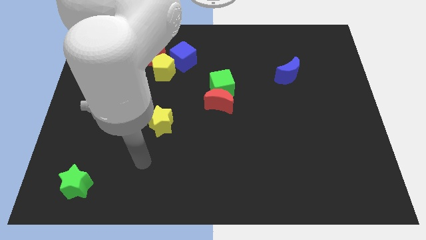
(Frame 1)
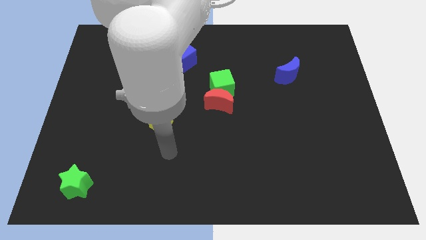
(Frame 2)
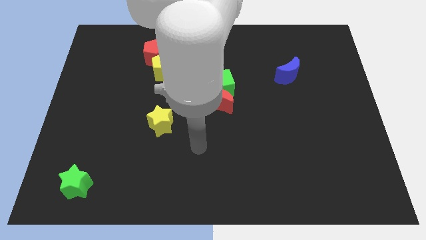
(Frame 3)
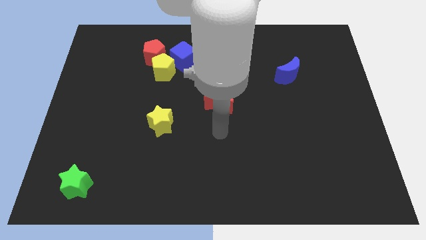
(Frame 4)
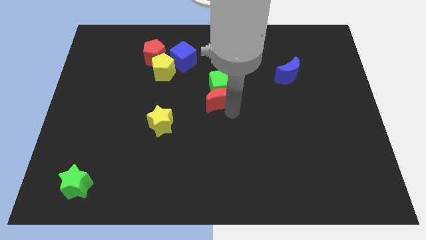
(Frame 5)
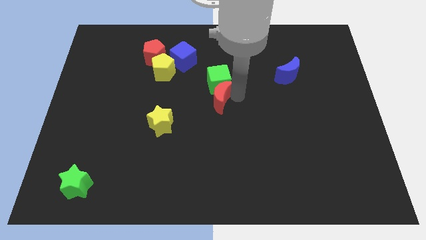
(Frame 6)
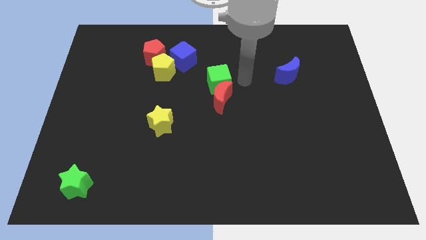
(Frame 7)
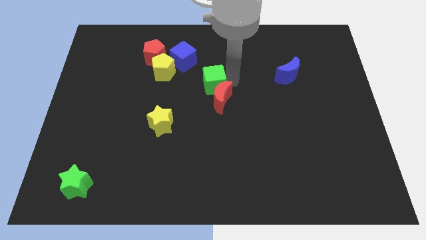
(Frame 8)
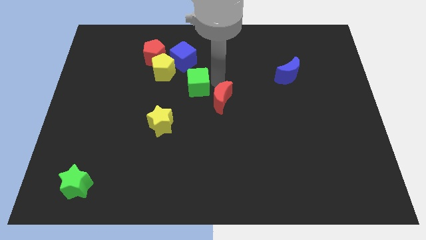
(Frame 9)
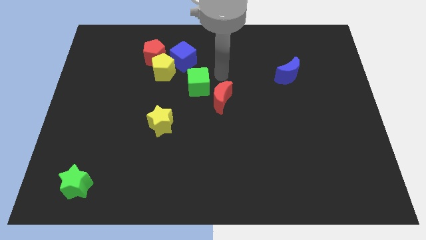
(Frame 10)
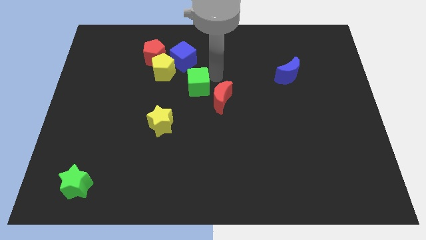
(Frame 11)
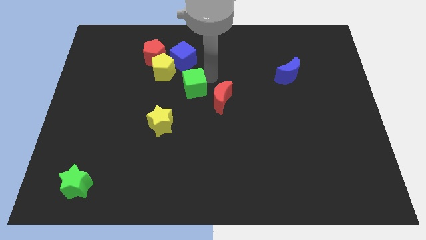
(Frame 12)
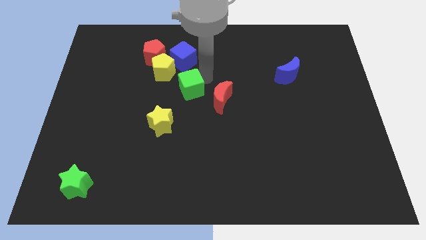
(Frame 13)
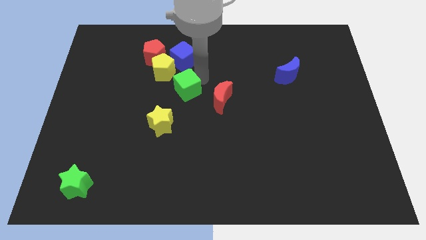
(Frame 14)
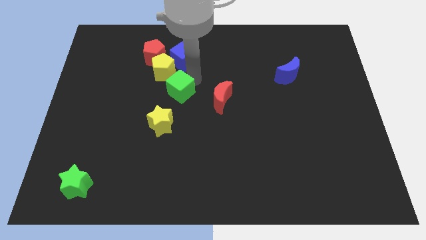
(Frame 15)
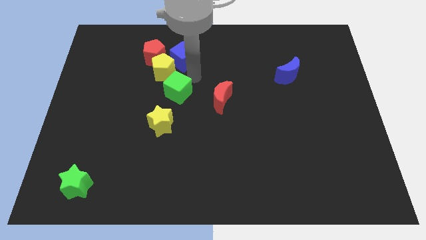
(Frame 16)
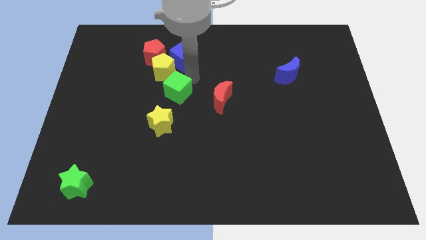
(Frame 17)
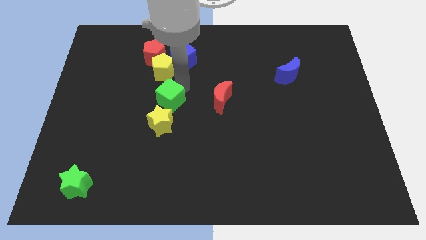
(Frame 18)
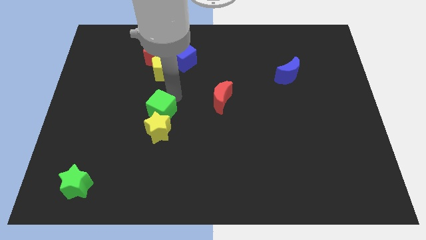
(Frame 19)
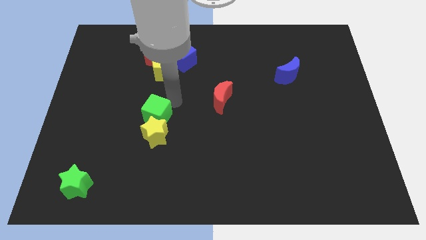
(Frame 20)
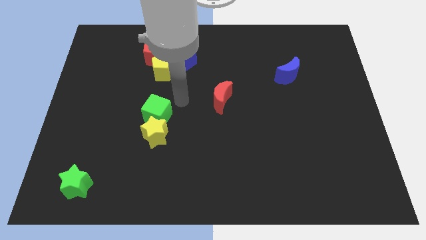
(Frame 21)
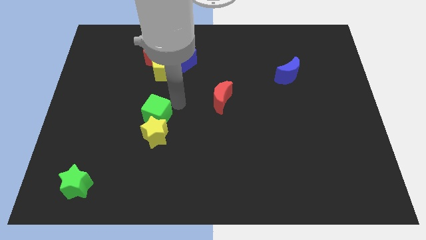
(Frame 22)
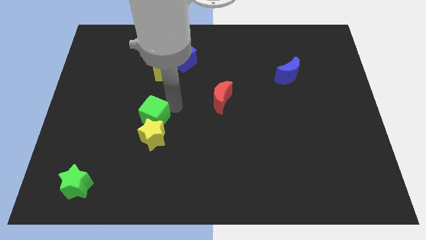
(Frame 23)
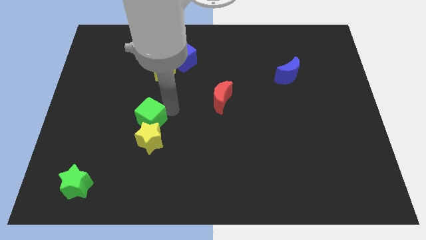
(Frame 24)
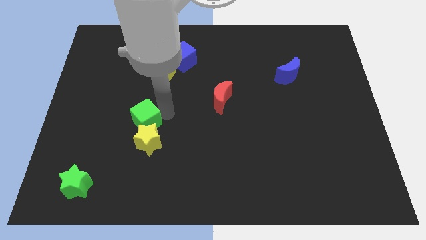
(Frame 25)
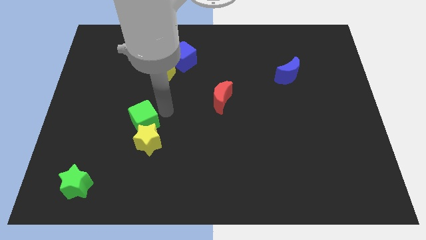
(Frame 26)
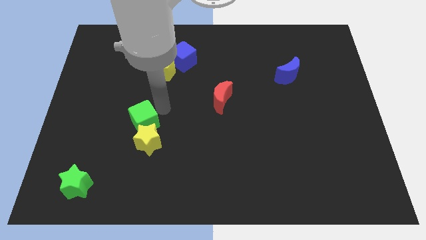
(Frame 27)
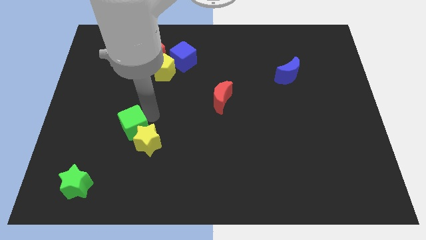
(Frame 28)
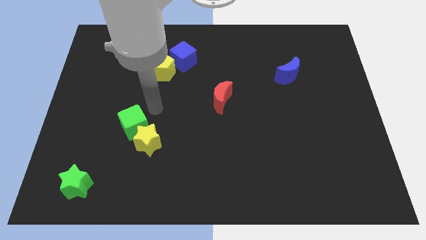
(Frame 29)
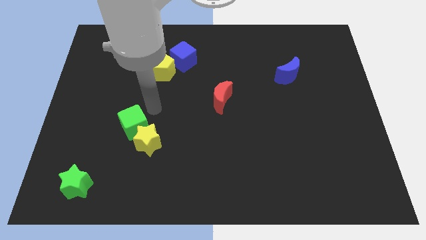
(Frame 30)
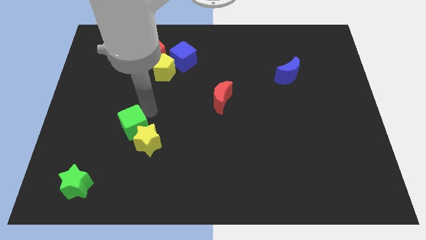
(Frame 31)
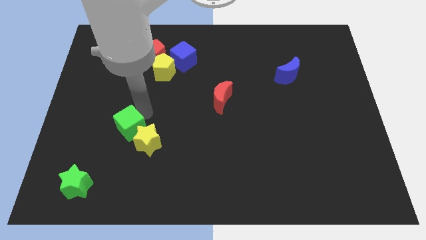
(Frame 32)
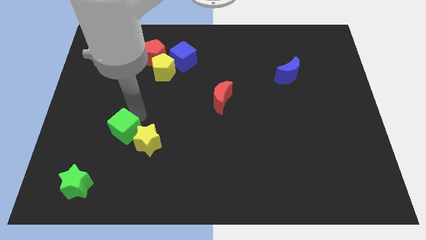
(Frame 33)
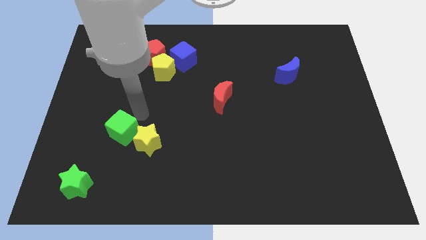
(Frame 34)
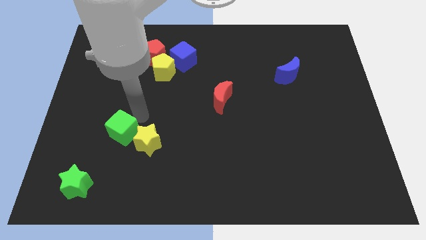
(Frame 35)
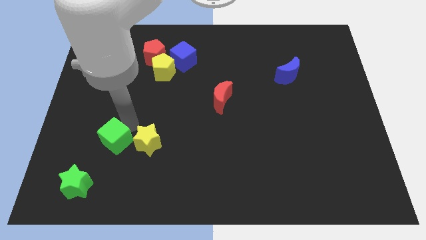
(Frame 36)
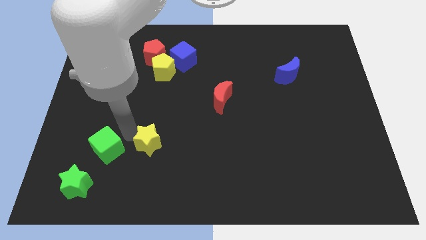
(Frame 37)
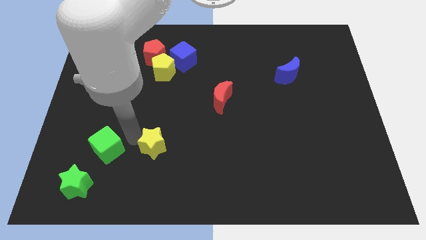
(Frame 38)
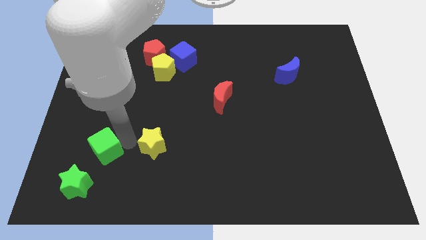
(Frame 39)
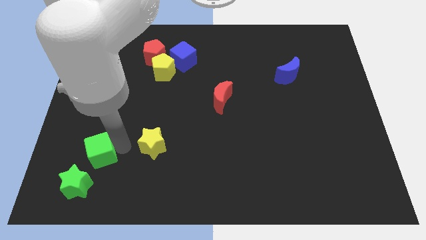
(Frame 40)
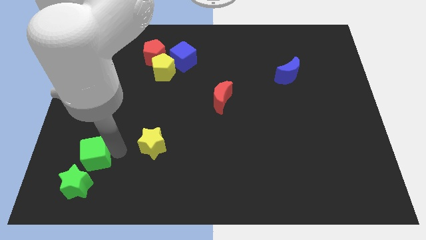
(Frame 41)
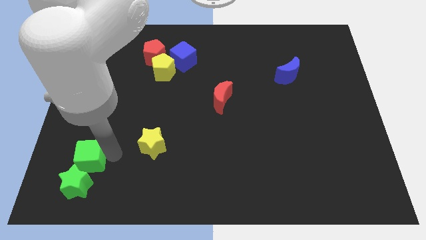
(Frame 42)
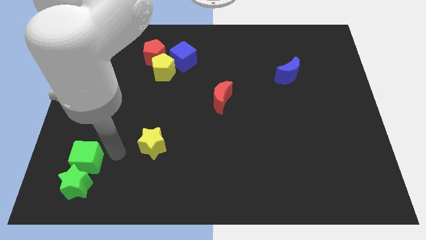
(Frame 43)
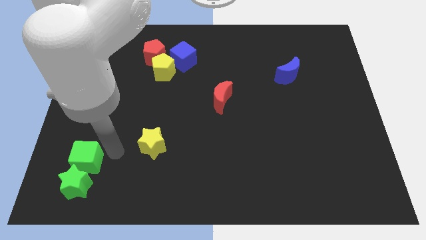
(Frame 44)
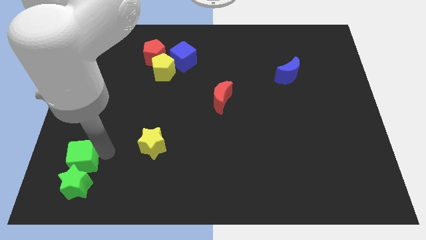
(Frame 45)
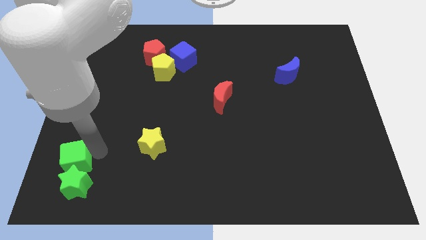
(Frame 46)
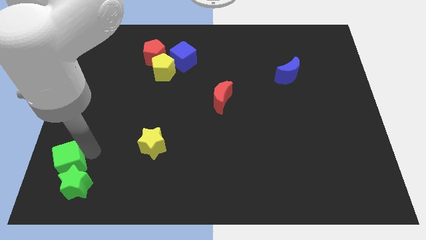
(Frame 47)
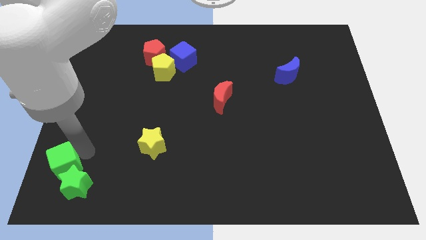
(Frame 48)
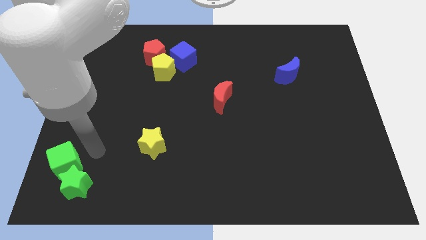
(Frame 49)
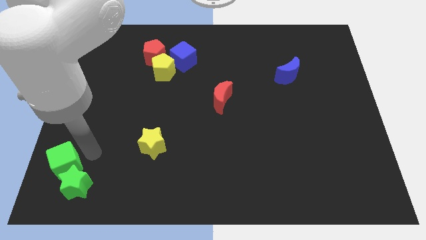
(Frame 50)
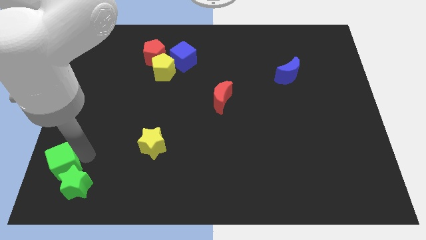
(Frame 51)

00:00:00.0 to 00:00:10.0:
slide the green cube to the lower left corner

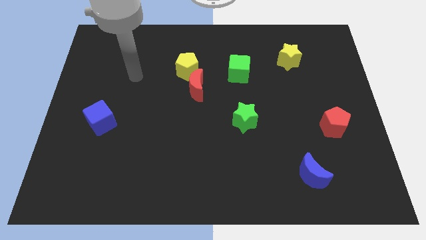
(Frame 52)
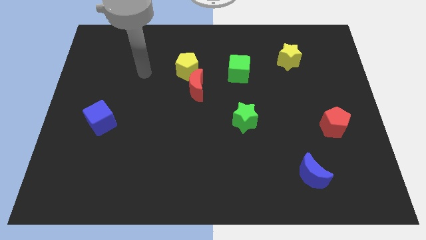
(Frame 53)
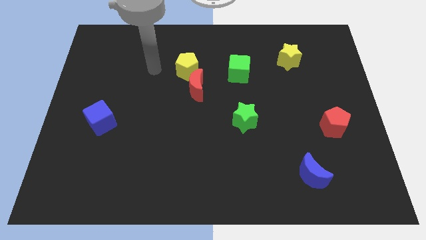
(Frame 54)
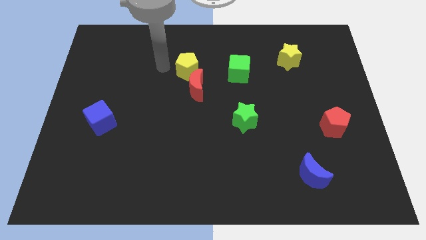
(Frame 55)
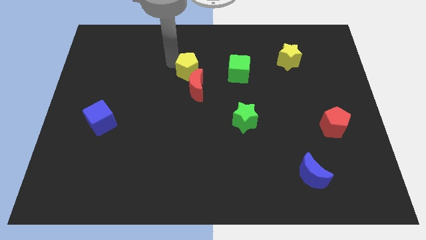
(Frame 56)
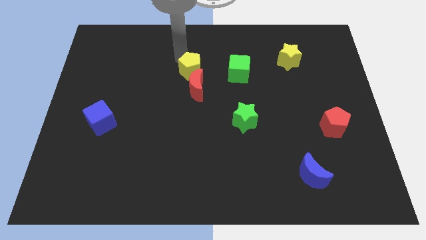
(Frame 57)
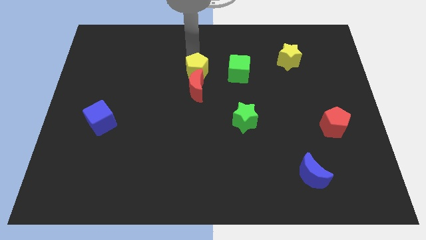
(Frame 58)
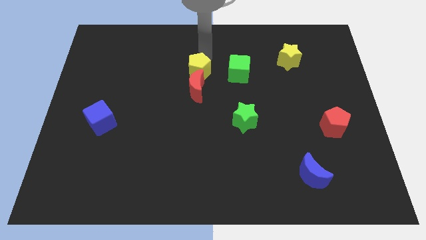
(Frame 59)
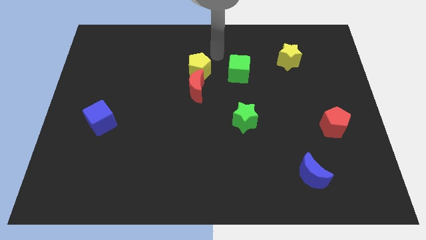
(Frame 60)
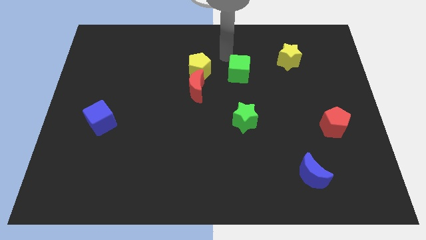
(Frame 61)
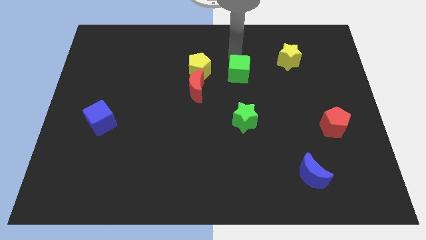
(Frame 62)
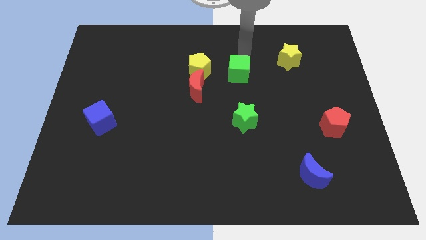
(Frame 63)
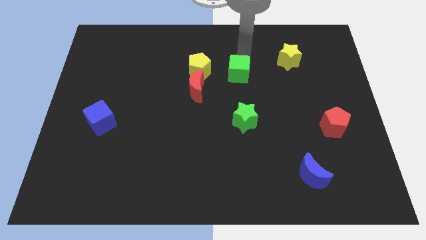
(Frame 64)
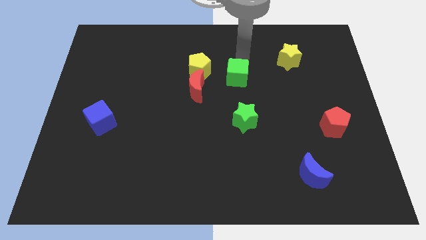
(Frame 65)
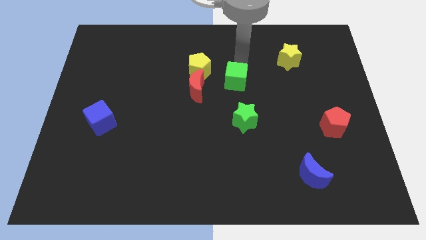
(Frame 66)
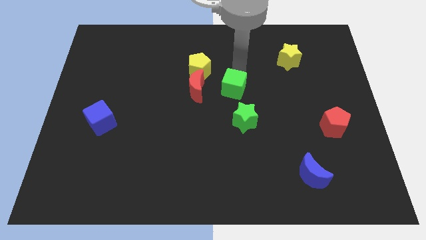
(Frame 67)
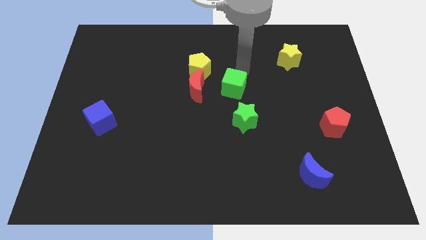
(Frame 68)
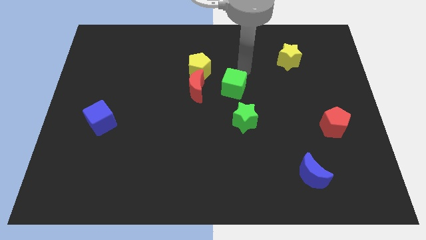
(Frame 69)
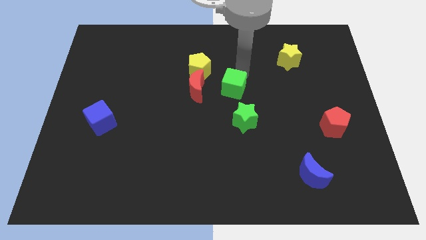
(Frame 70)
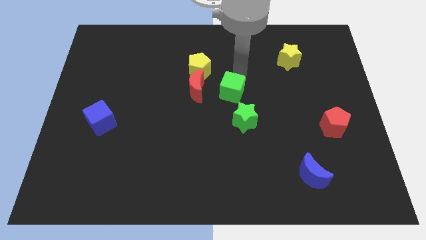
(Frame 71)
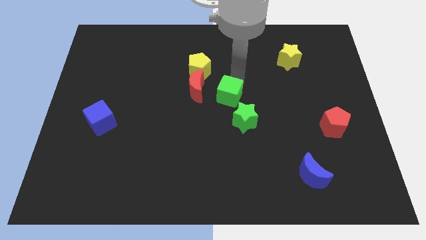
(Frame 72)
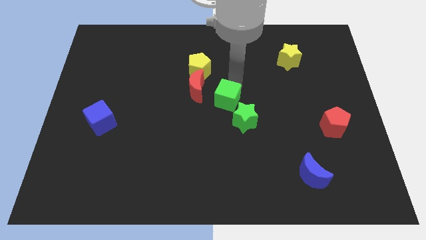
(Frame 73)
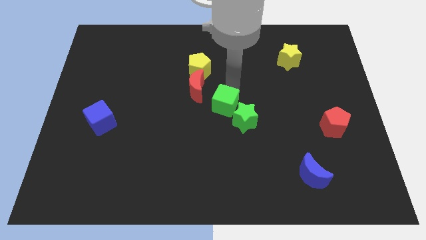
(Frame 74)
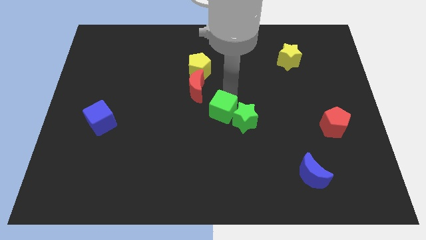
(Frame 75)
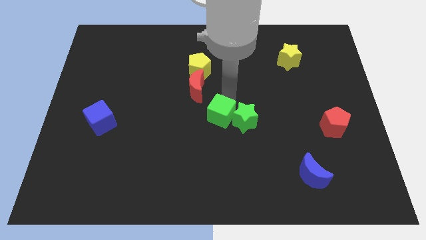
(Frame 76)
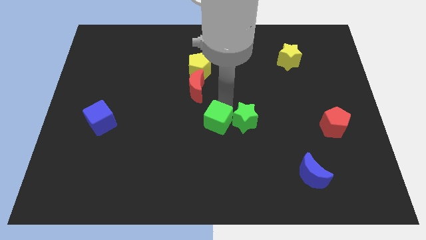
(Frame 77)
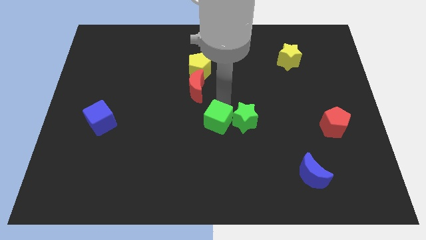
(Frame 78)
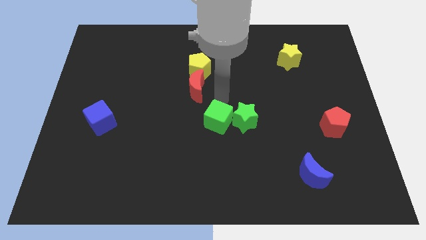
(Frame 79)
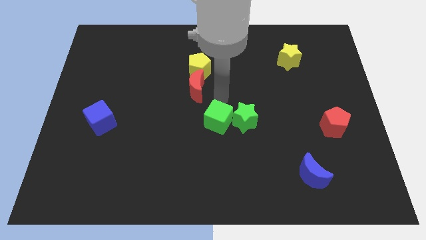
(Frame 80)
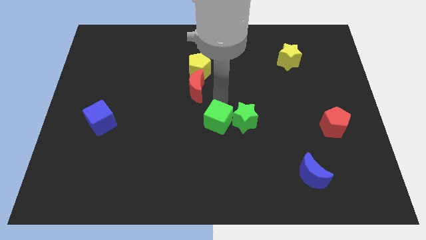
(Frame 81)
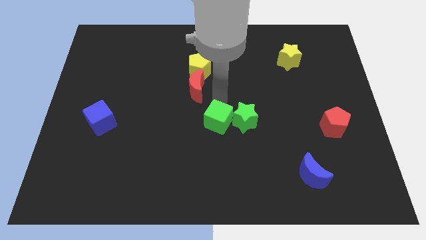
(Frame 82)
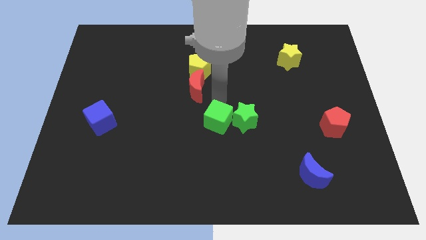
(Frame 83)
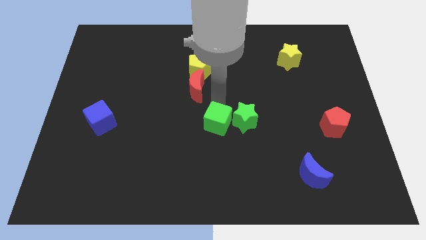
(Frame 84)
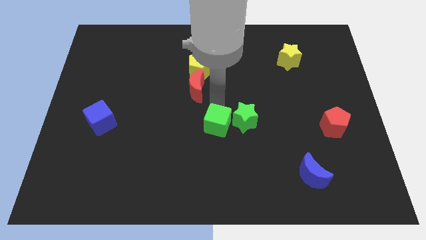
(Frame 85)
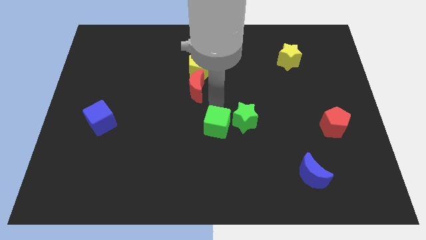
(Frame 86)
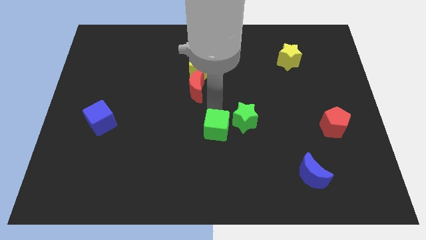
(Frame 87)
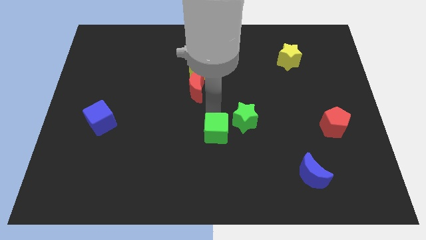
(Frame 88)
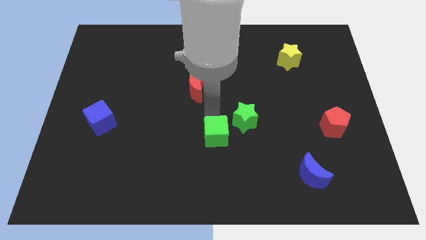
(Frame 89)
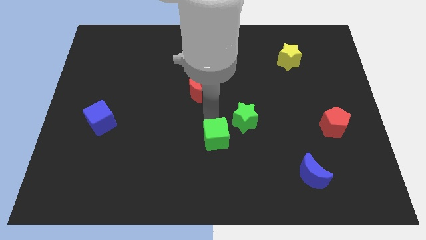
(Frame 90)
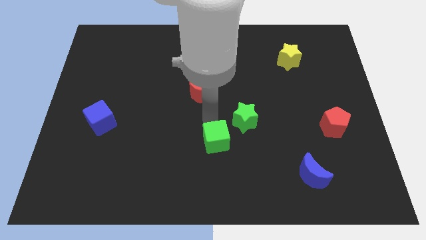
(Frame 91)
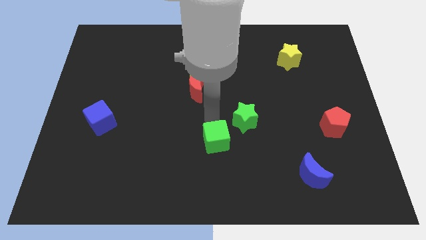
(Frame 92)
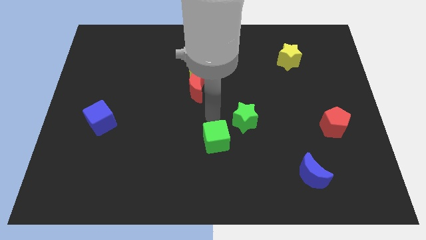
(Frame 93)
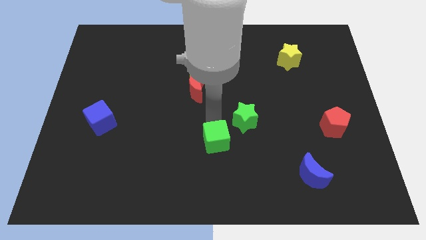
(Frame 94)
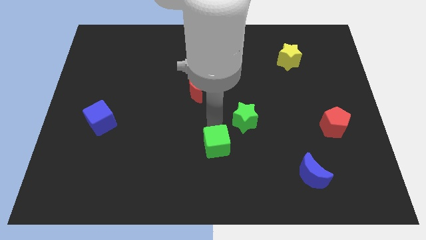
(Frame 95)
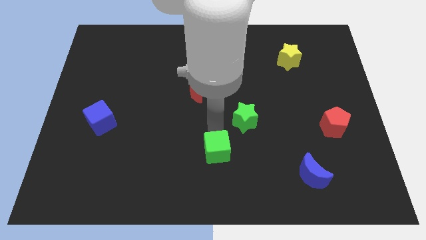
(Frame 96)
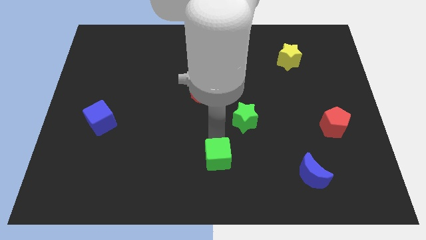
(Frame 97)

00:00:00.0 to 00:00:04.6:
push the green cube to the bottom side
